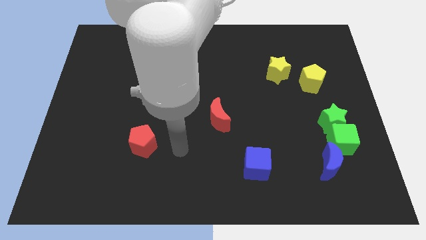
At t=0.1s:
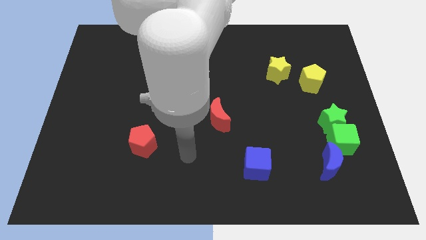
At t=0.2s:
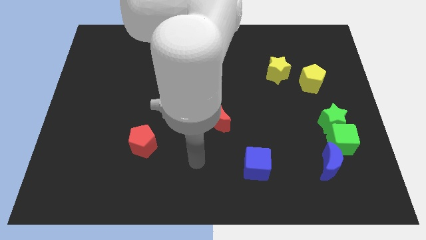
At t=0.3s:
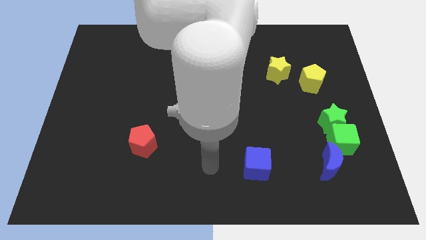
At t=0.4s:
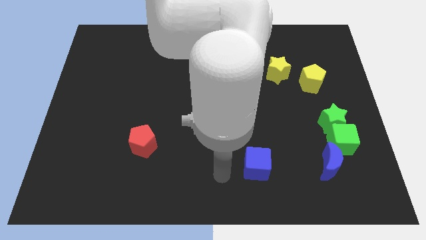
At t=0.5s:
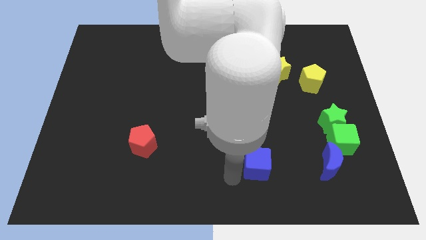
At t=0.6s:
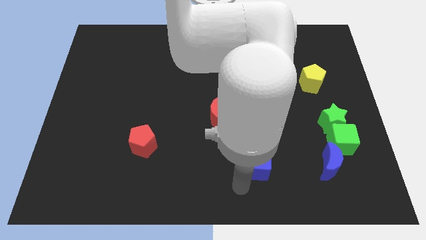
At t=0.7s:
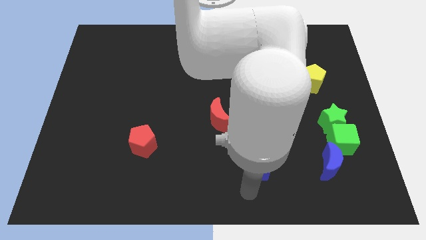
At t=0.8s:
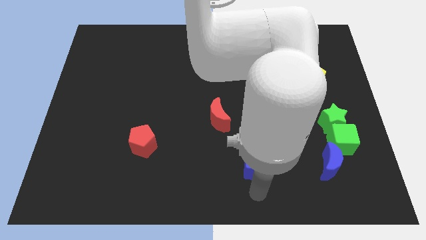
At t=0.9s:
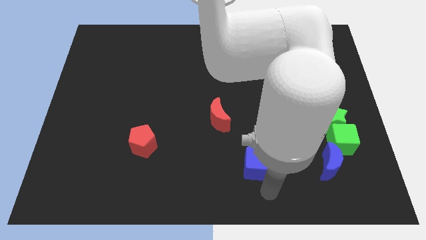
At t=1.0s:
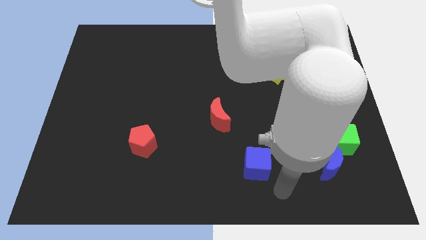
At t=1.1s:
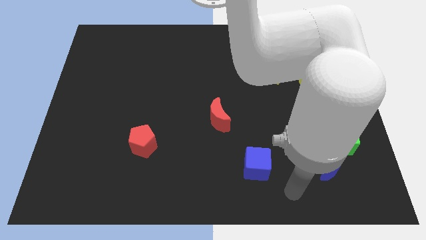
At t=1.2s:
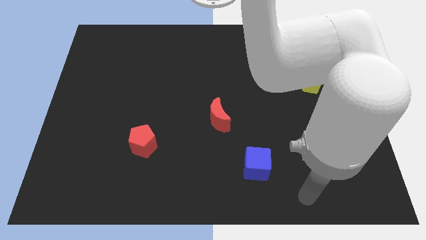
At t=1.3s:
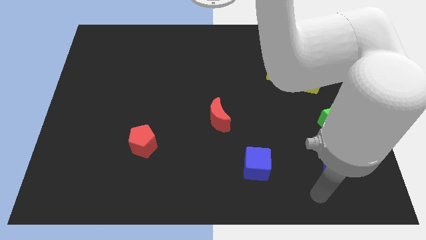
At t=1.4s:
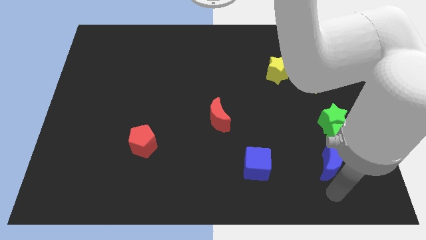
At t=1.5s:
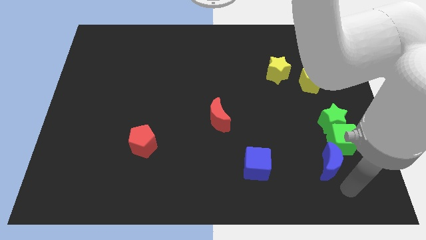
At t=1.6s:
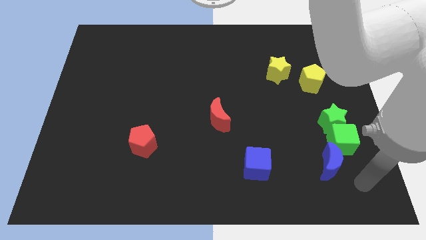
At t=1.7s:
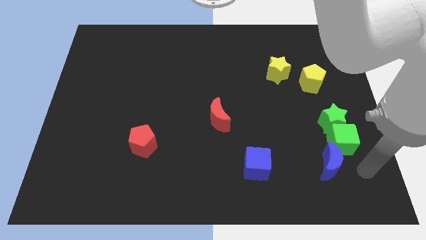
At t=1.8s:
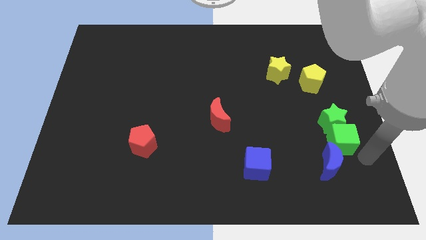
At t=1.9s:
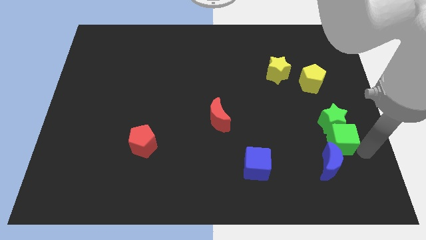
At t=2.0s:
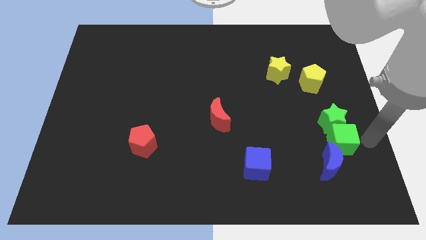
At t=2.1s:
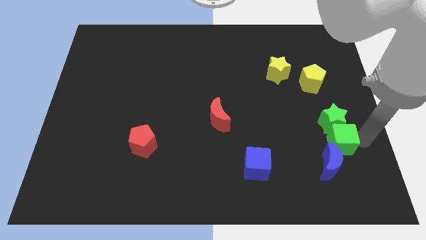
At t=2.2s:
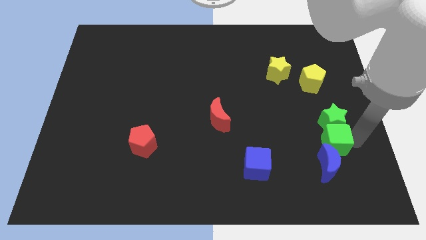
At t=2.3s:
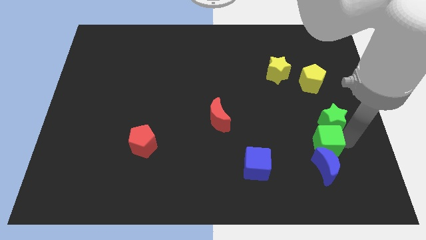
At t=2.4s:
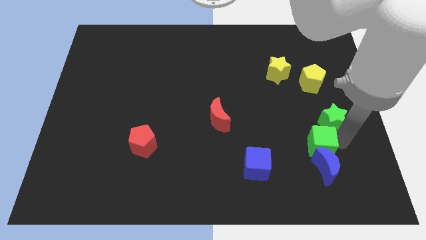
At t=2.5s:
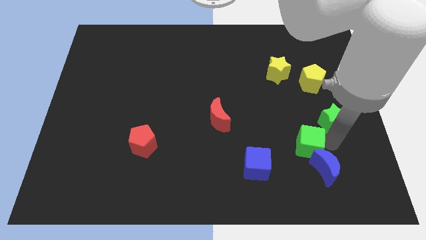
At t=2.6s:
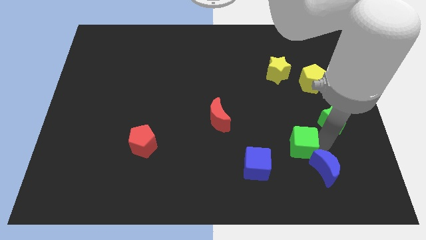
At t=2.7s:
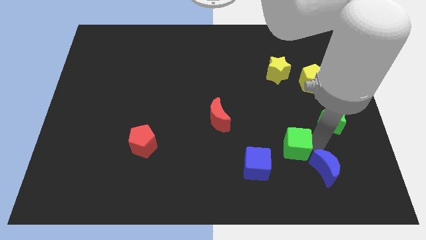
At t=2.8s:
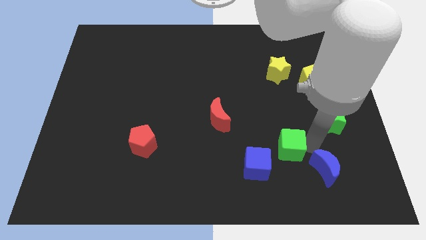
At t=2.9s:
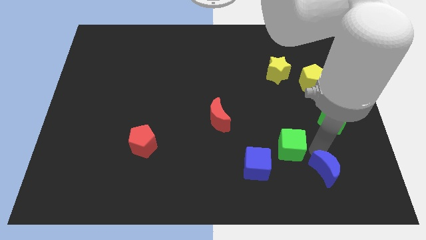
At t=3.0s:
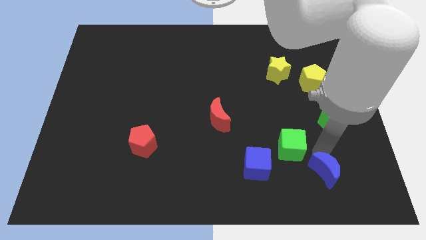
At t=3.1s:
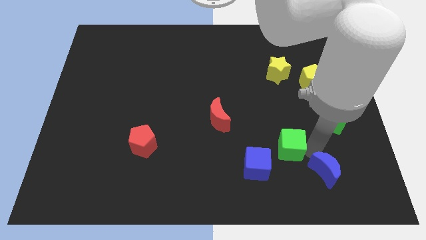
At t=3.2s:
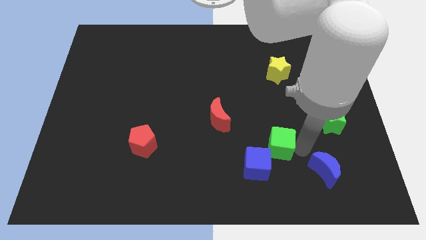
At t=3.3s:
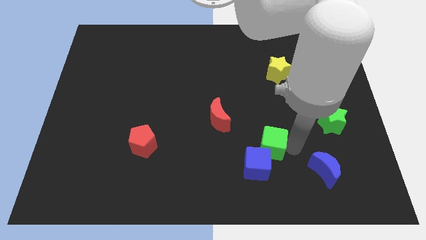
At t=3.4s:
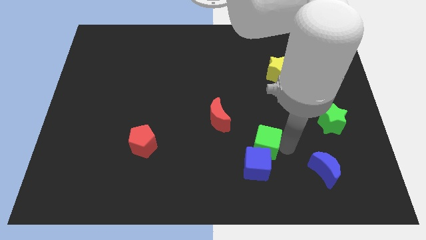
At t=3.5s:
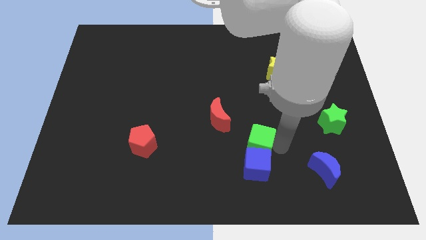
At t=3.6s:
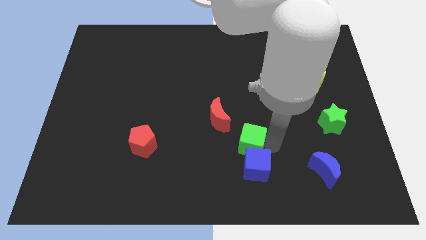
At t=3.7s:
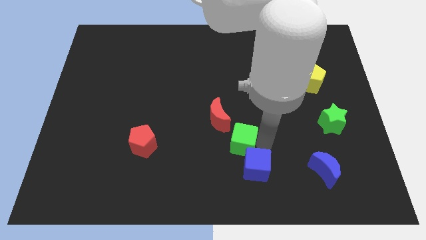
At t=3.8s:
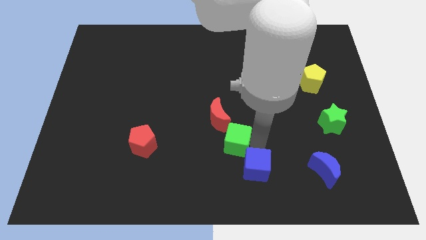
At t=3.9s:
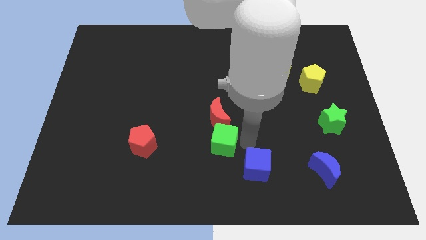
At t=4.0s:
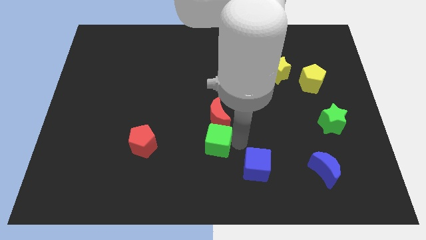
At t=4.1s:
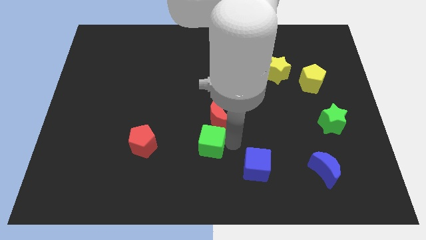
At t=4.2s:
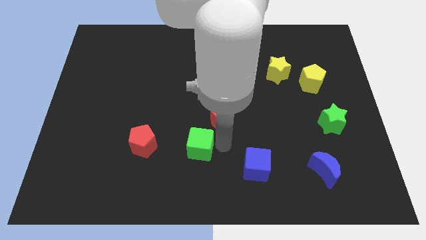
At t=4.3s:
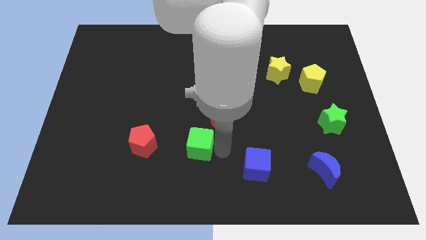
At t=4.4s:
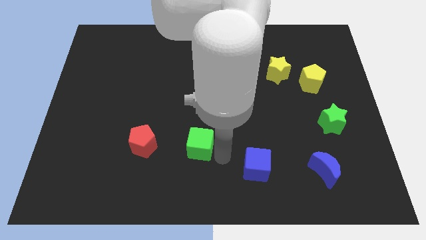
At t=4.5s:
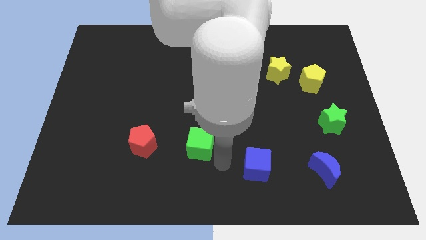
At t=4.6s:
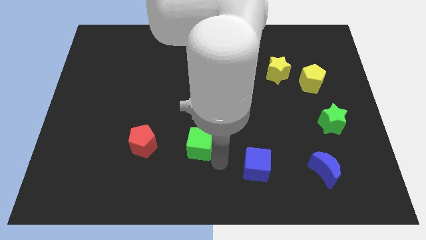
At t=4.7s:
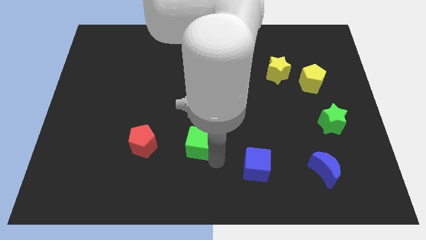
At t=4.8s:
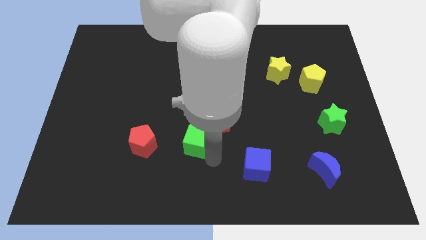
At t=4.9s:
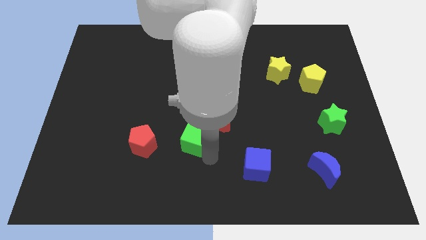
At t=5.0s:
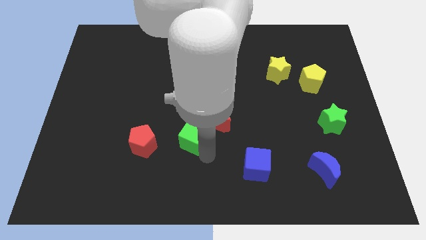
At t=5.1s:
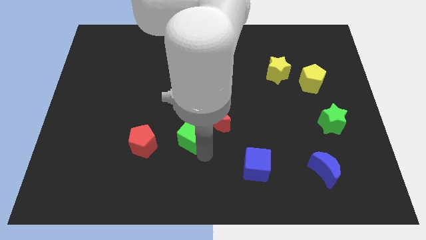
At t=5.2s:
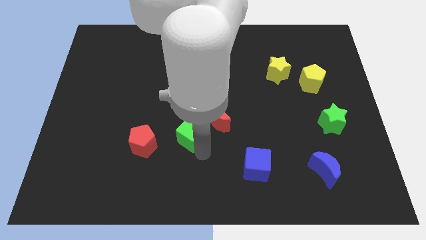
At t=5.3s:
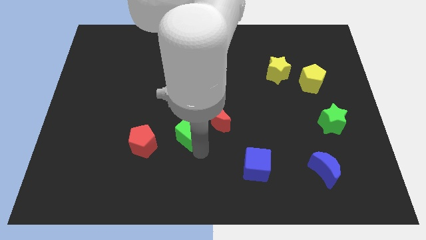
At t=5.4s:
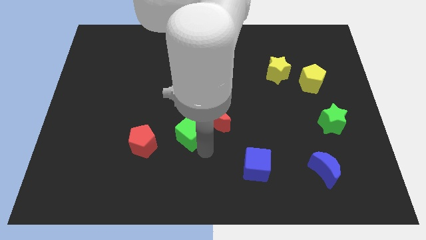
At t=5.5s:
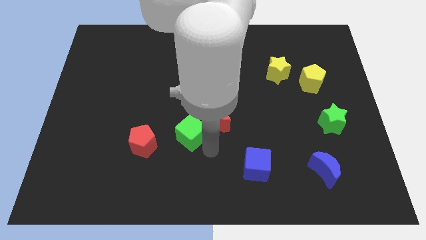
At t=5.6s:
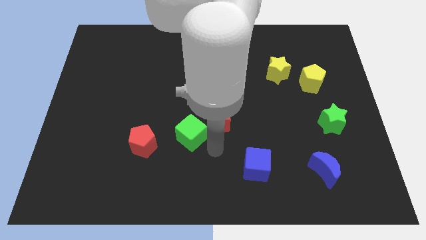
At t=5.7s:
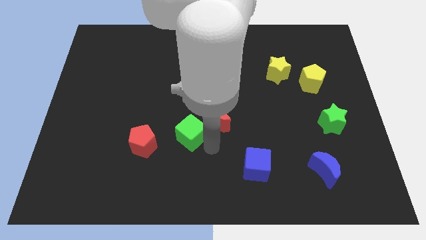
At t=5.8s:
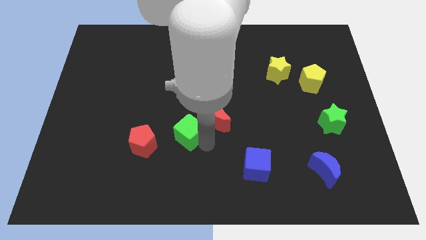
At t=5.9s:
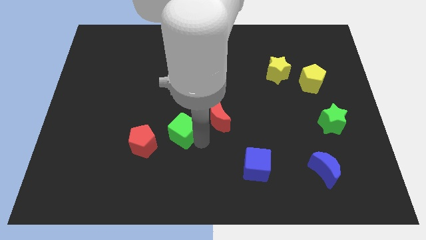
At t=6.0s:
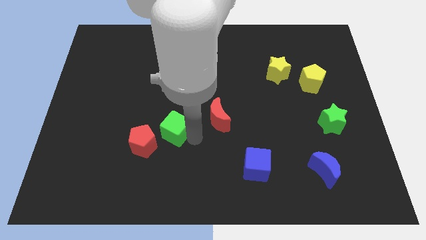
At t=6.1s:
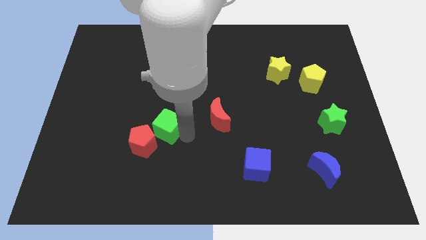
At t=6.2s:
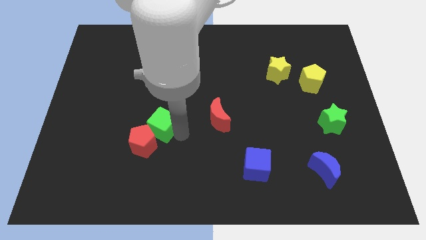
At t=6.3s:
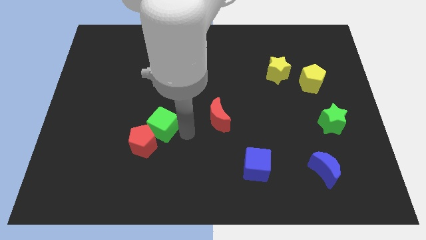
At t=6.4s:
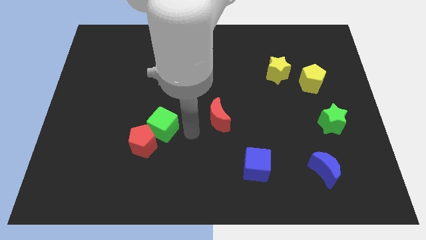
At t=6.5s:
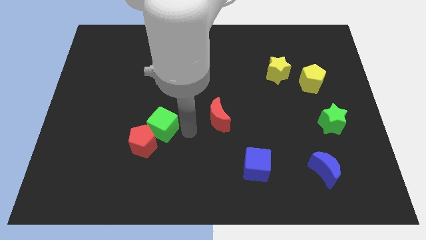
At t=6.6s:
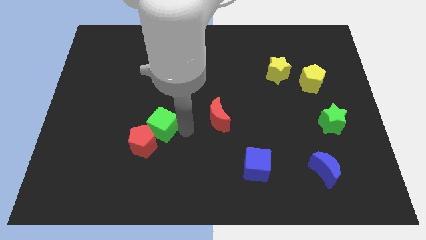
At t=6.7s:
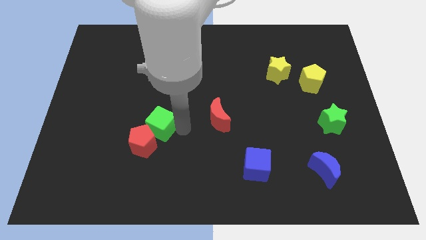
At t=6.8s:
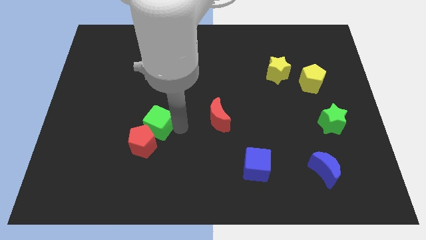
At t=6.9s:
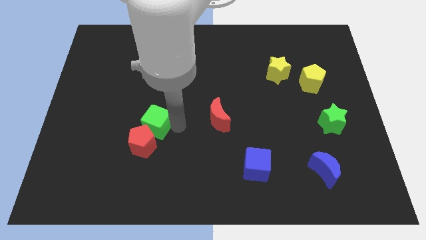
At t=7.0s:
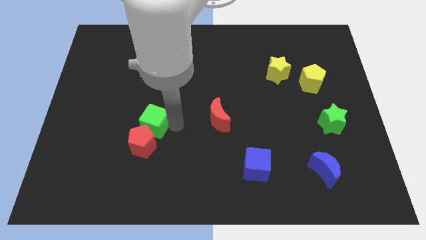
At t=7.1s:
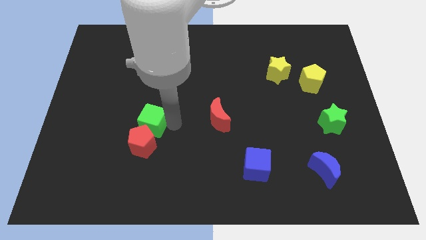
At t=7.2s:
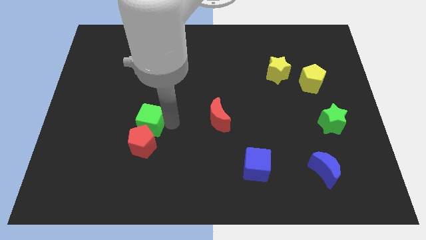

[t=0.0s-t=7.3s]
move the green cube diagonally up and to the left of the red pentagon
